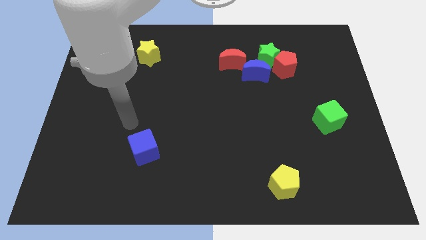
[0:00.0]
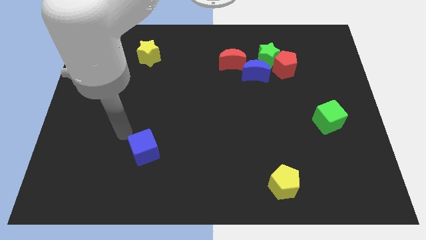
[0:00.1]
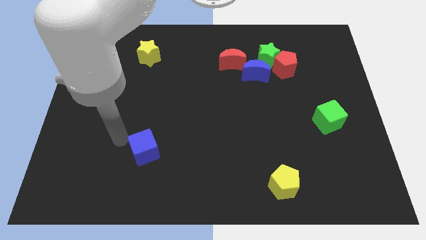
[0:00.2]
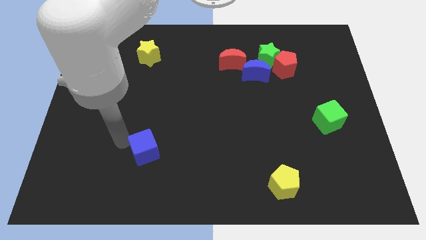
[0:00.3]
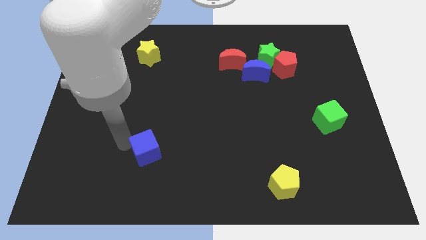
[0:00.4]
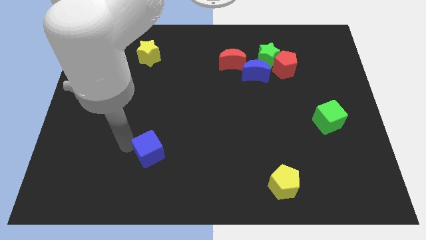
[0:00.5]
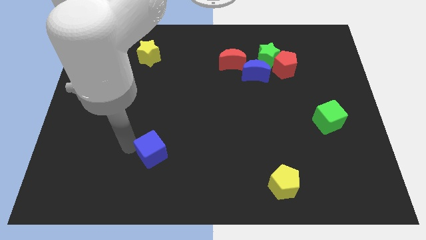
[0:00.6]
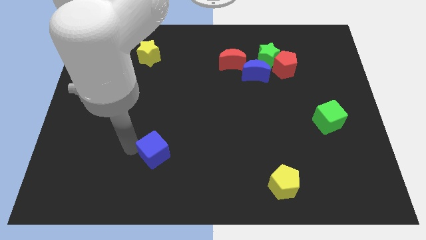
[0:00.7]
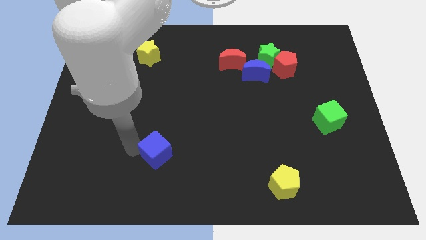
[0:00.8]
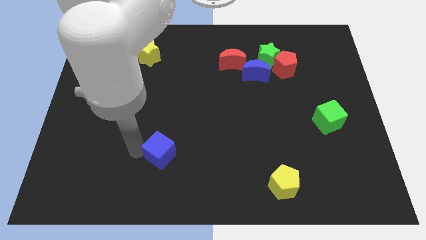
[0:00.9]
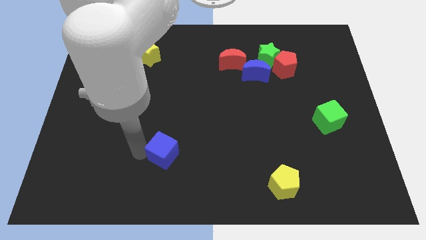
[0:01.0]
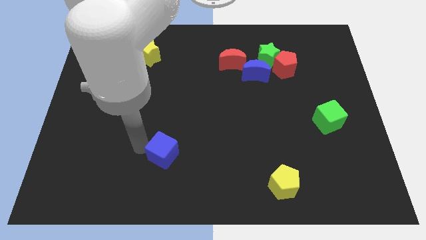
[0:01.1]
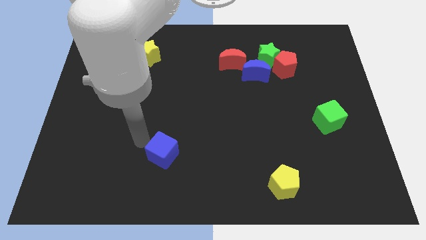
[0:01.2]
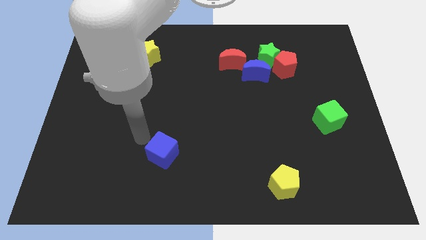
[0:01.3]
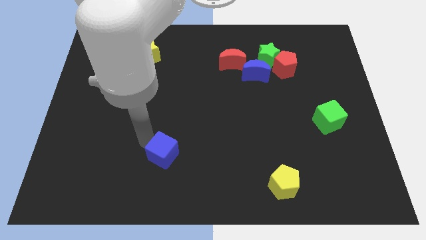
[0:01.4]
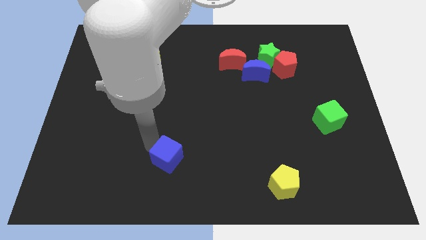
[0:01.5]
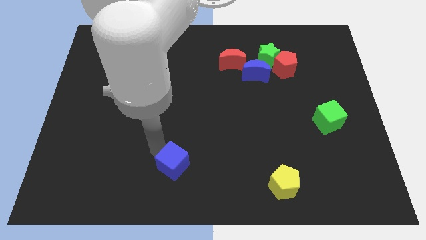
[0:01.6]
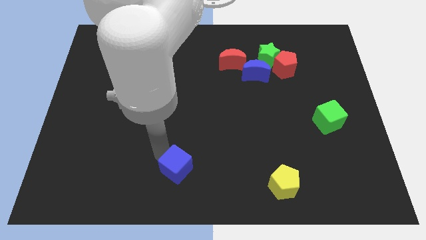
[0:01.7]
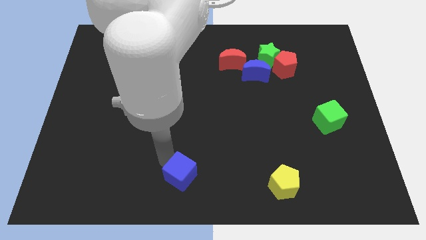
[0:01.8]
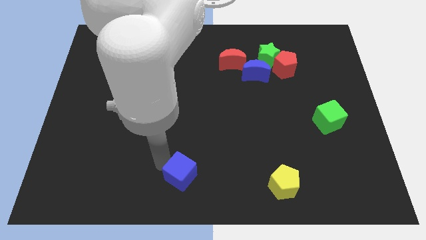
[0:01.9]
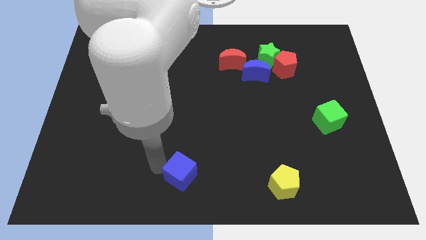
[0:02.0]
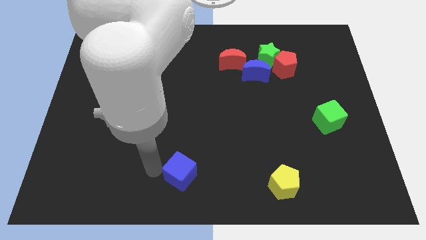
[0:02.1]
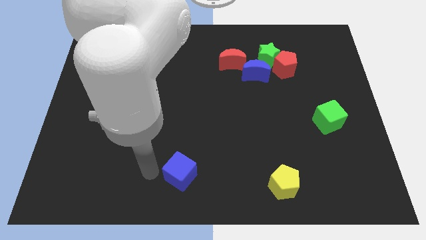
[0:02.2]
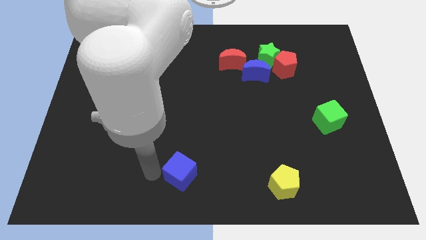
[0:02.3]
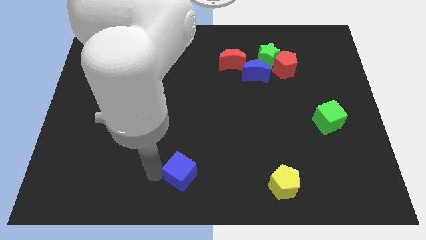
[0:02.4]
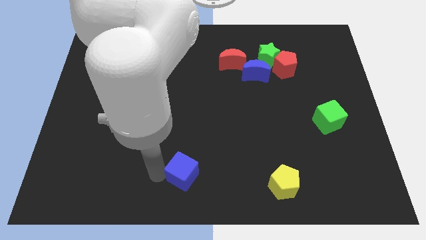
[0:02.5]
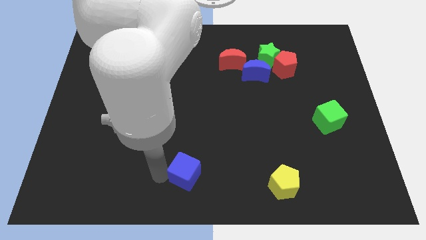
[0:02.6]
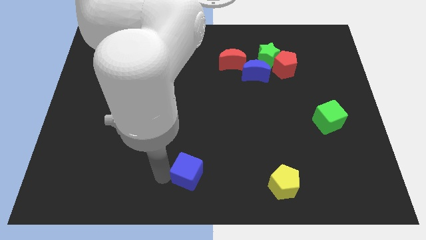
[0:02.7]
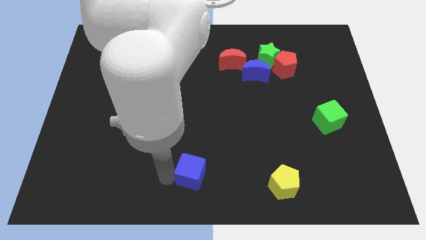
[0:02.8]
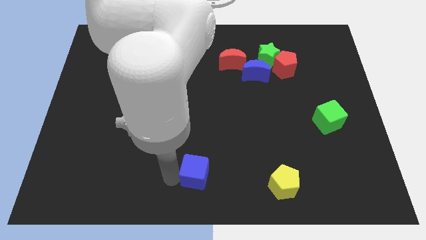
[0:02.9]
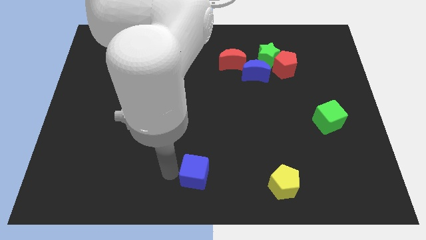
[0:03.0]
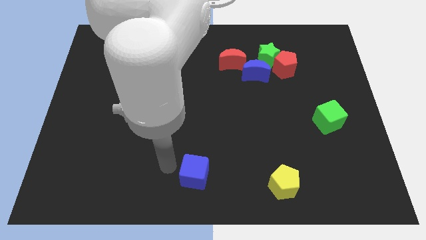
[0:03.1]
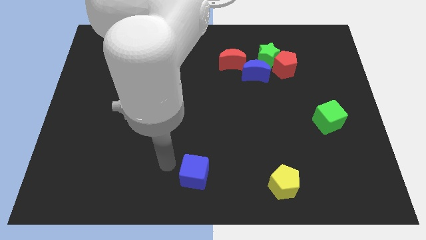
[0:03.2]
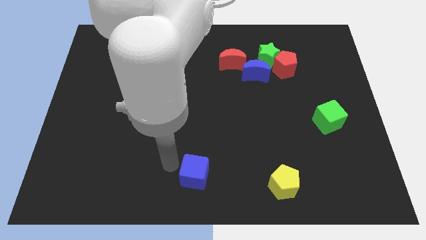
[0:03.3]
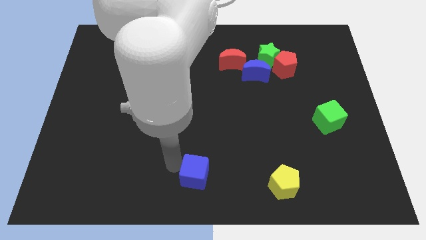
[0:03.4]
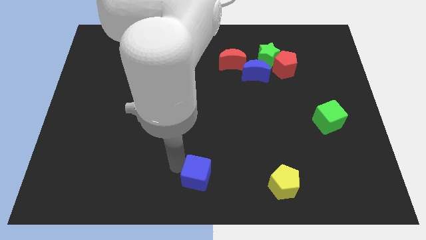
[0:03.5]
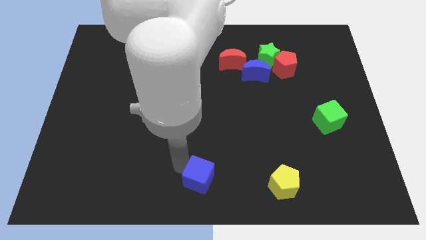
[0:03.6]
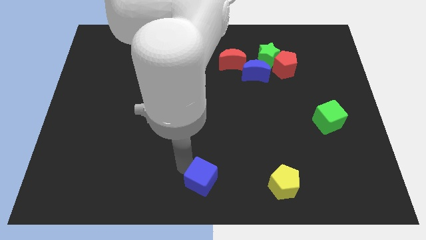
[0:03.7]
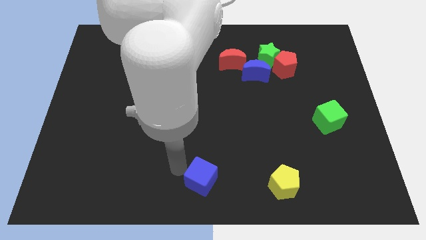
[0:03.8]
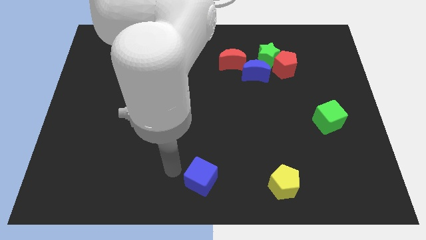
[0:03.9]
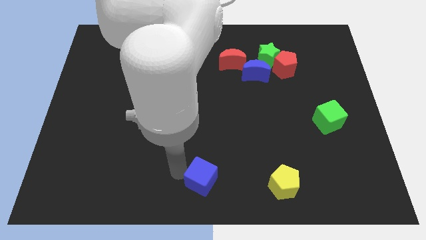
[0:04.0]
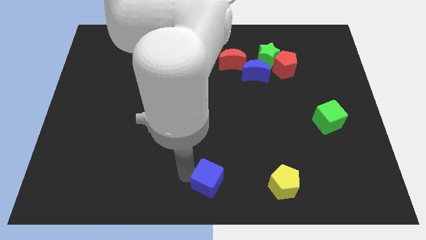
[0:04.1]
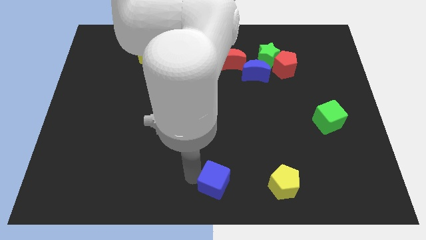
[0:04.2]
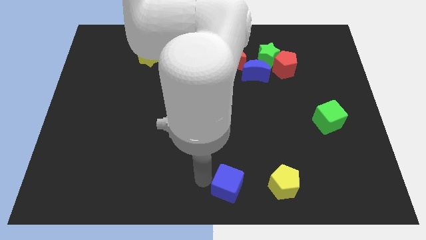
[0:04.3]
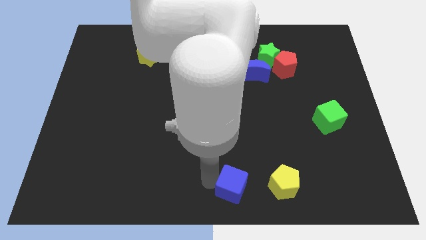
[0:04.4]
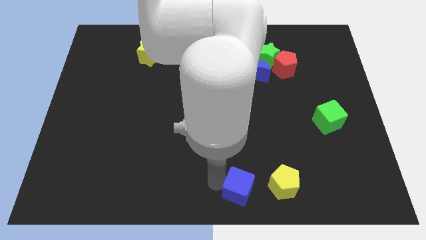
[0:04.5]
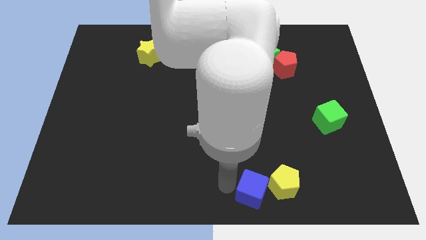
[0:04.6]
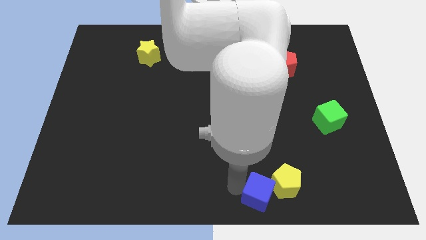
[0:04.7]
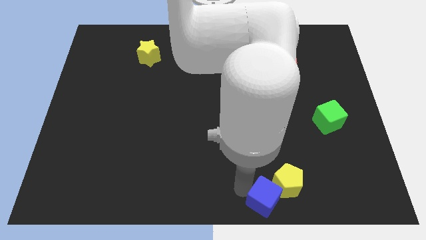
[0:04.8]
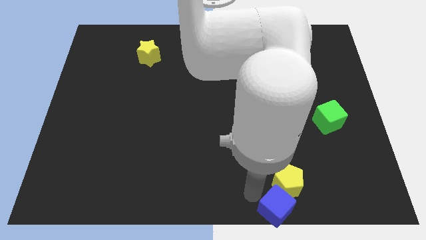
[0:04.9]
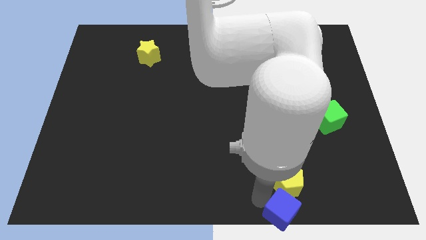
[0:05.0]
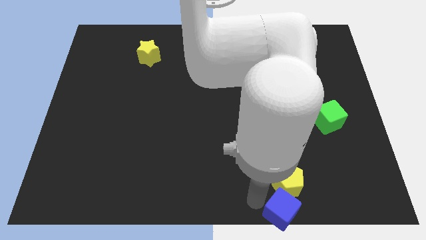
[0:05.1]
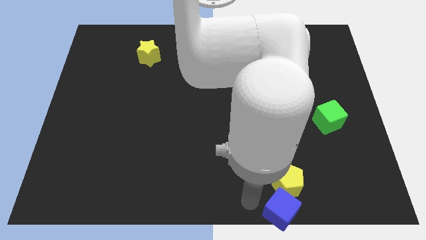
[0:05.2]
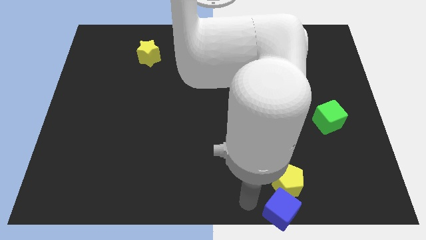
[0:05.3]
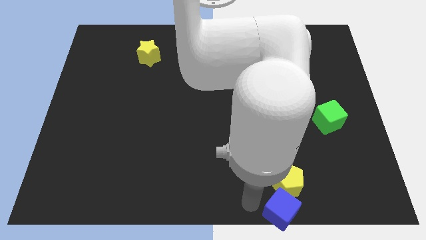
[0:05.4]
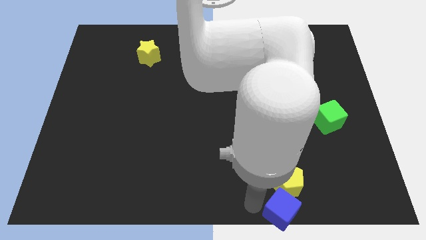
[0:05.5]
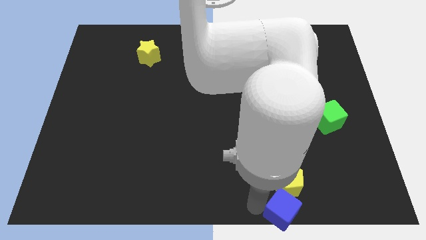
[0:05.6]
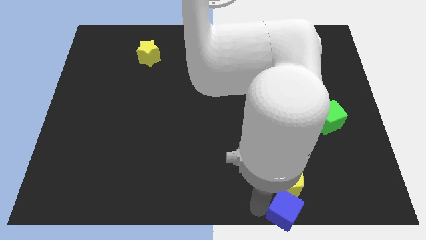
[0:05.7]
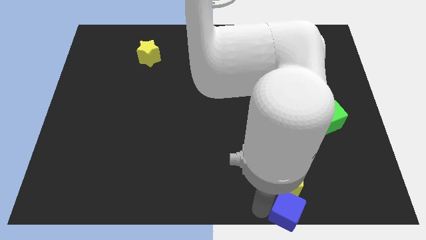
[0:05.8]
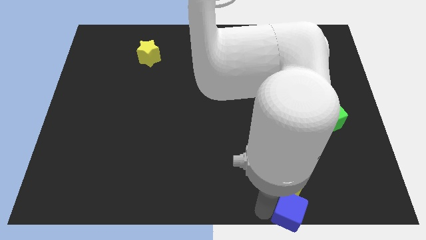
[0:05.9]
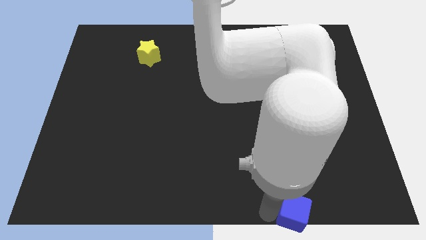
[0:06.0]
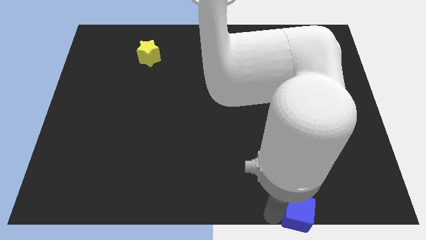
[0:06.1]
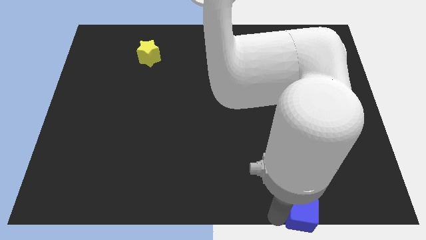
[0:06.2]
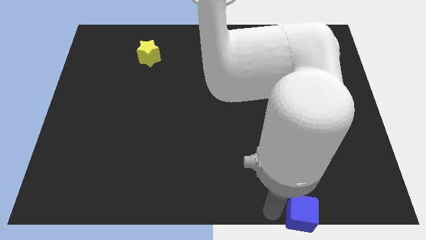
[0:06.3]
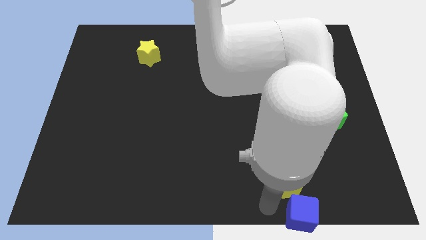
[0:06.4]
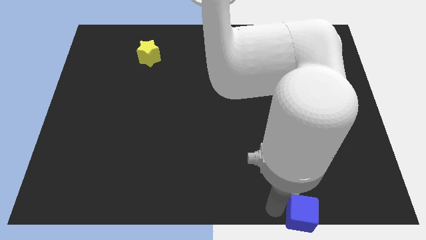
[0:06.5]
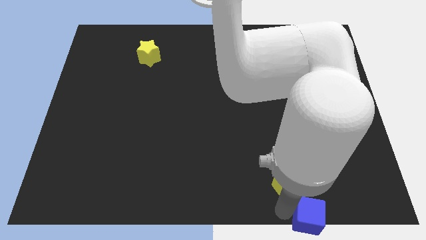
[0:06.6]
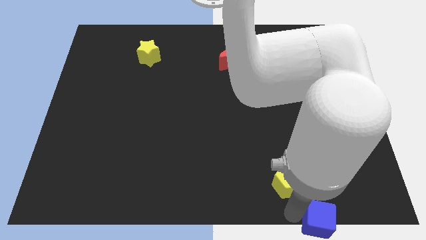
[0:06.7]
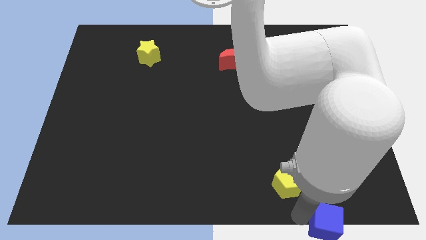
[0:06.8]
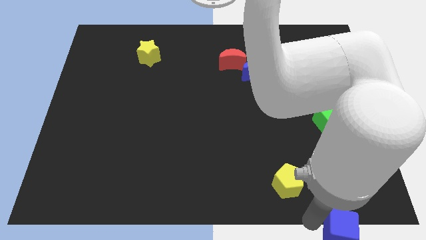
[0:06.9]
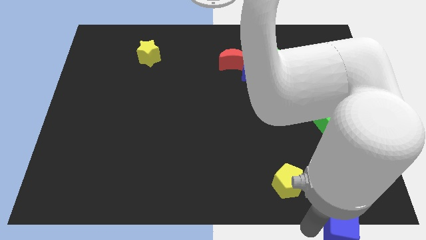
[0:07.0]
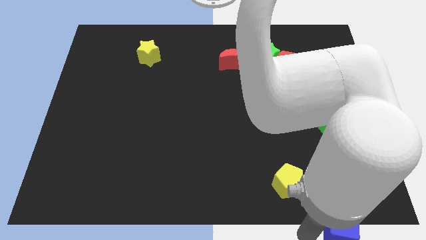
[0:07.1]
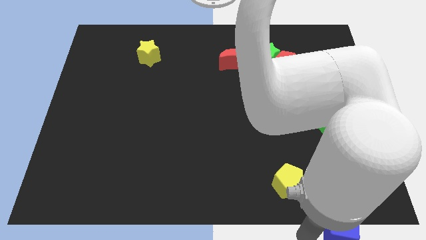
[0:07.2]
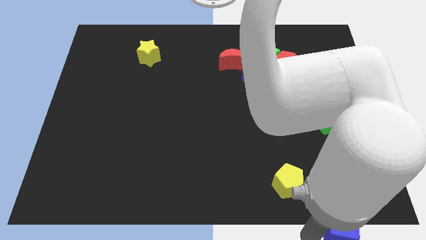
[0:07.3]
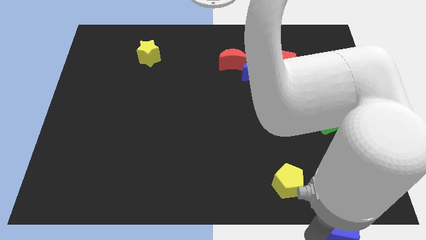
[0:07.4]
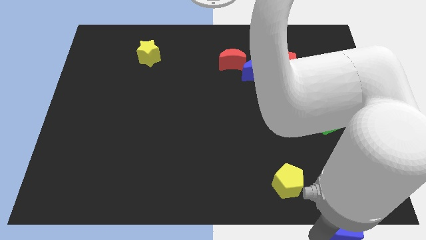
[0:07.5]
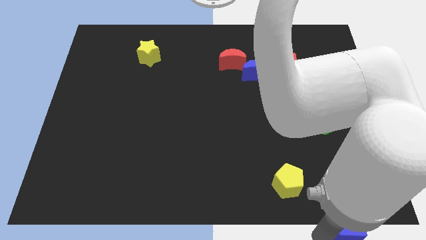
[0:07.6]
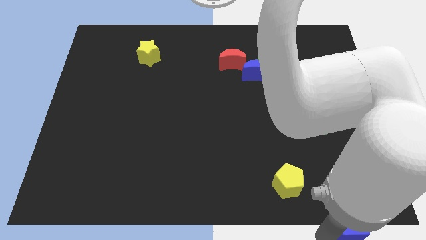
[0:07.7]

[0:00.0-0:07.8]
move the blue cube to the bottom right corner
